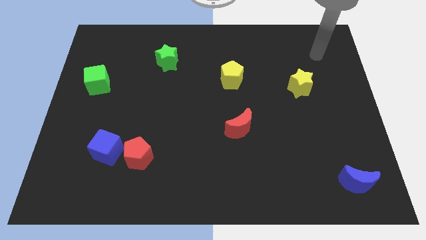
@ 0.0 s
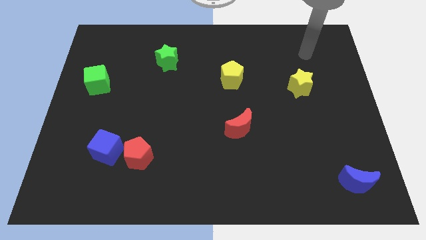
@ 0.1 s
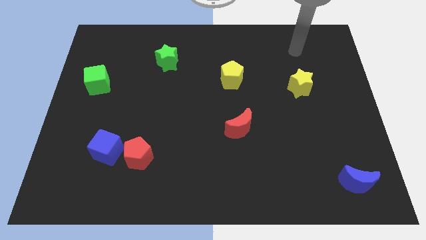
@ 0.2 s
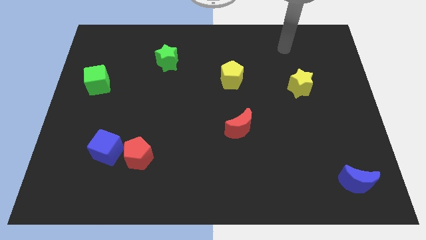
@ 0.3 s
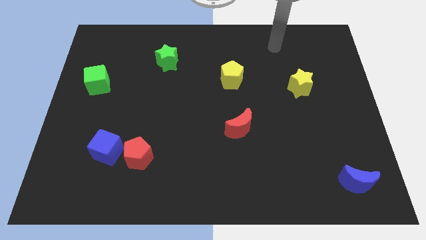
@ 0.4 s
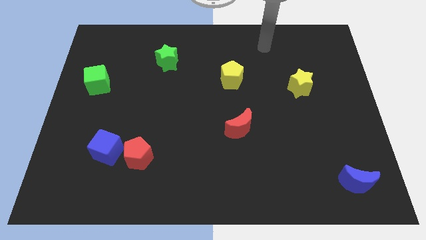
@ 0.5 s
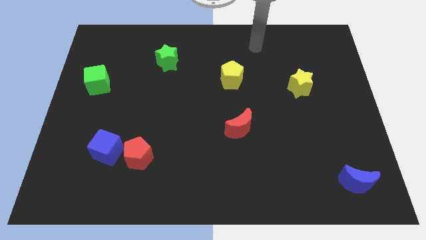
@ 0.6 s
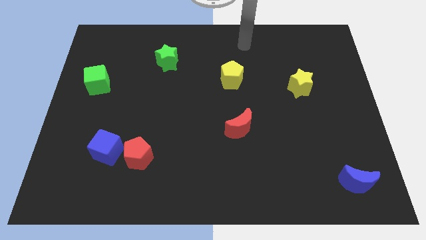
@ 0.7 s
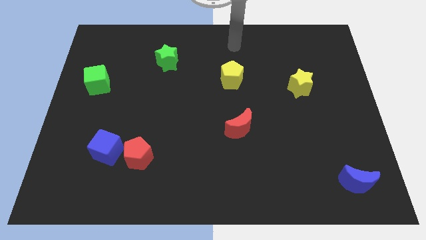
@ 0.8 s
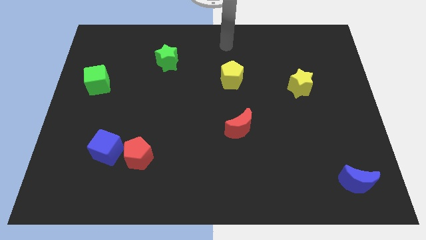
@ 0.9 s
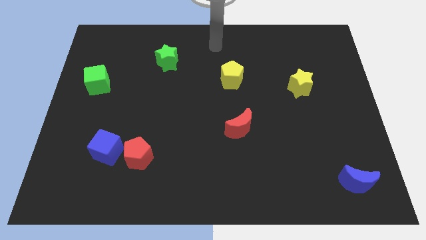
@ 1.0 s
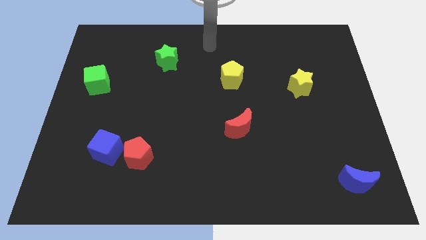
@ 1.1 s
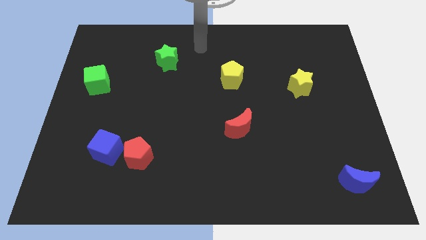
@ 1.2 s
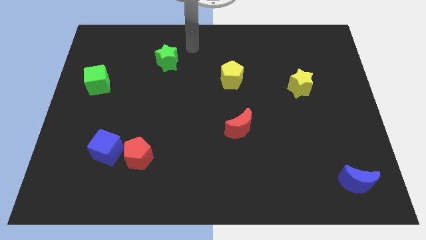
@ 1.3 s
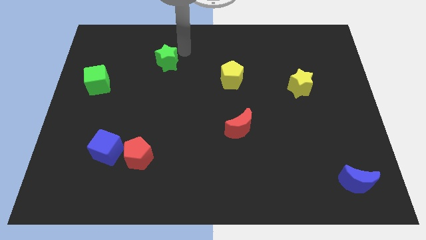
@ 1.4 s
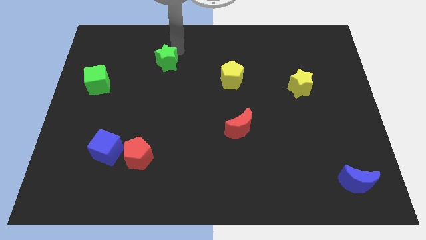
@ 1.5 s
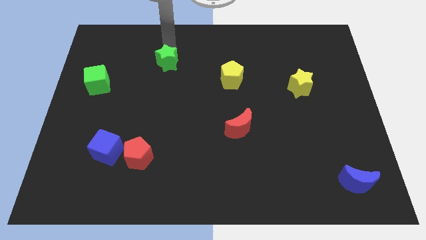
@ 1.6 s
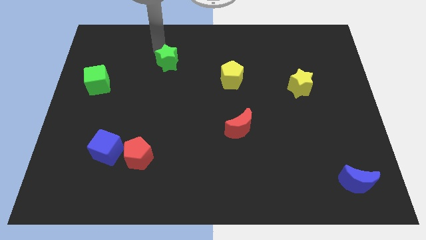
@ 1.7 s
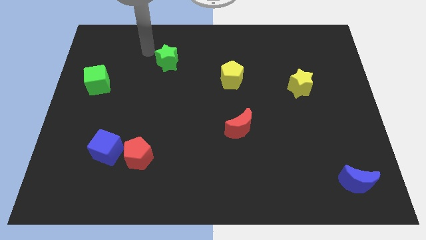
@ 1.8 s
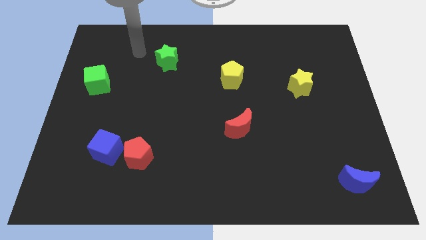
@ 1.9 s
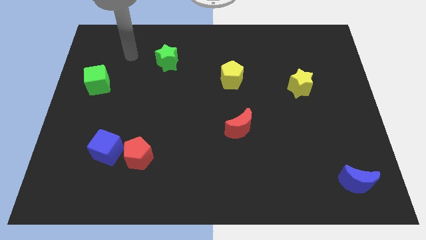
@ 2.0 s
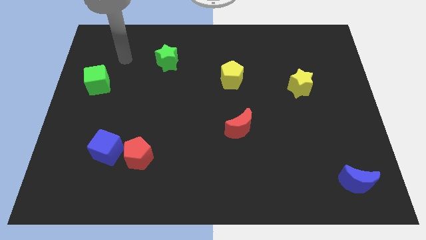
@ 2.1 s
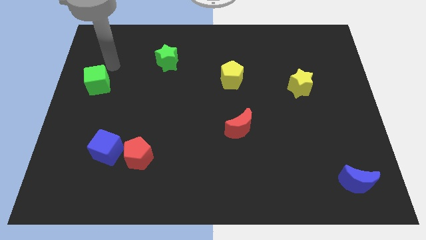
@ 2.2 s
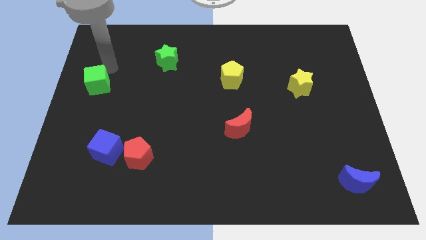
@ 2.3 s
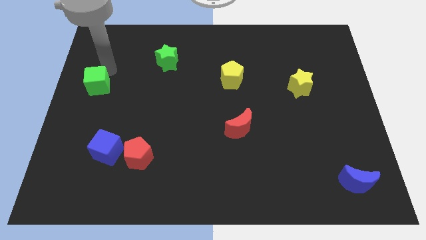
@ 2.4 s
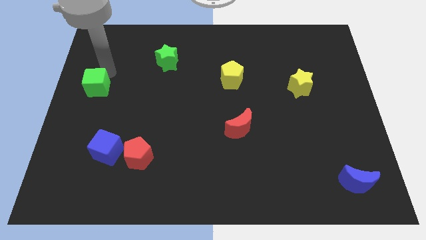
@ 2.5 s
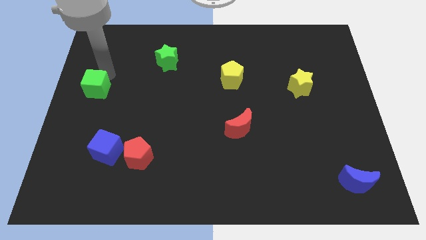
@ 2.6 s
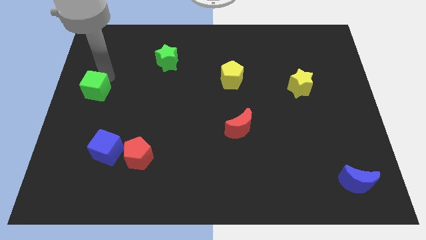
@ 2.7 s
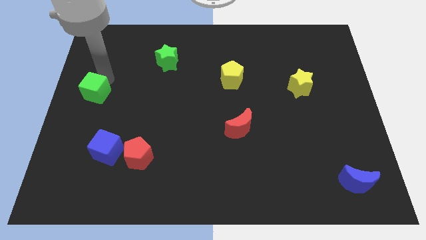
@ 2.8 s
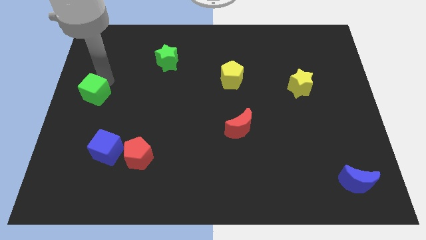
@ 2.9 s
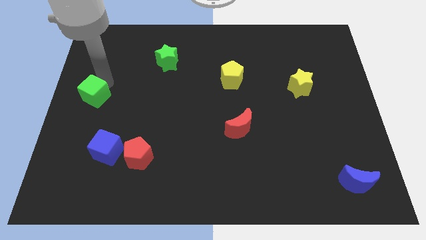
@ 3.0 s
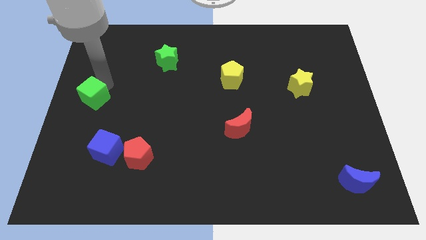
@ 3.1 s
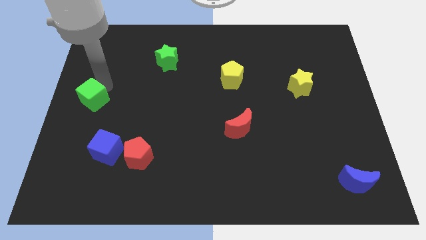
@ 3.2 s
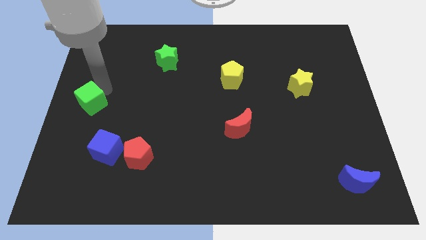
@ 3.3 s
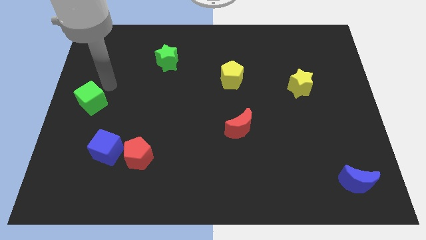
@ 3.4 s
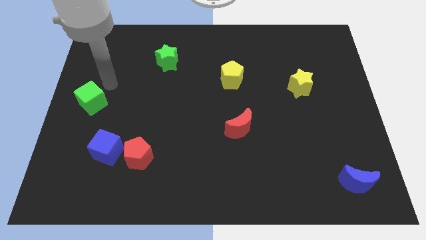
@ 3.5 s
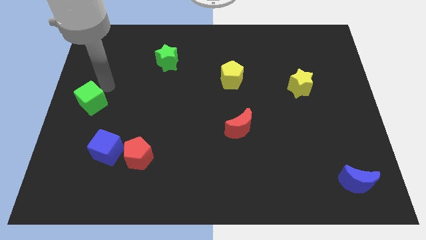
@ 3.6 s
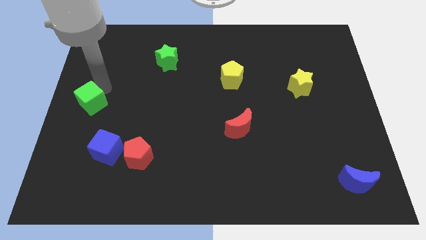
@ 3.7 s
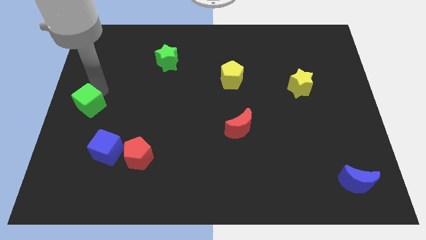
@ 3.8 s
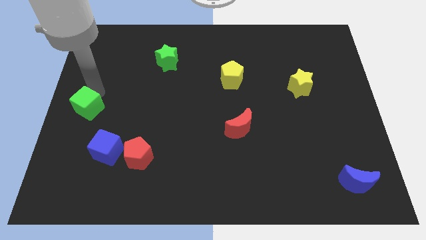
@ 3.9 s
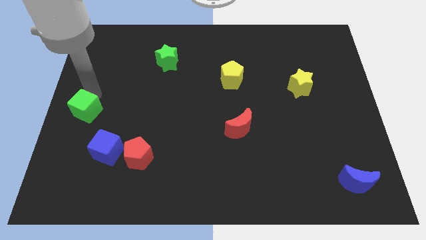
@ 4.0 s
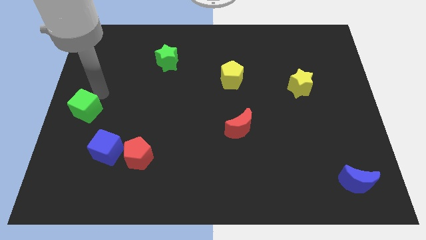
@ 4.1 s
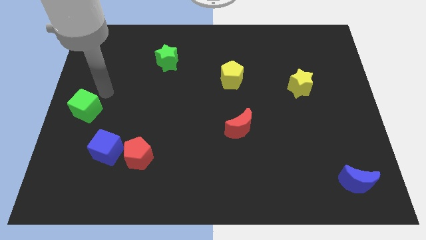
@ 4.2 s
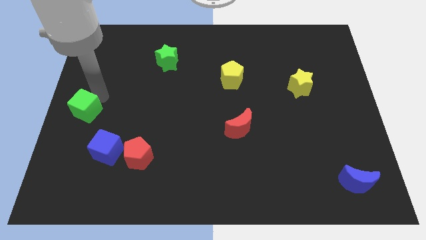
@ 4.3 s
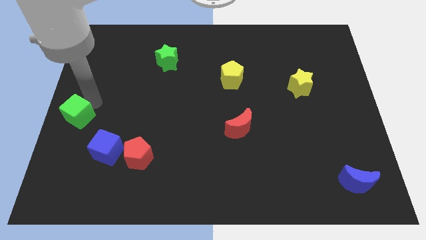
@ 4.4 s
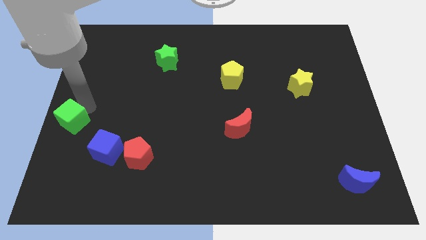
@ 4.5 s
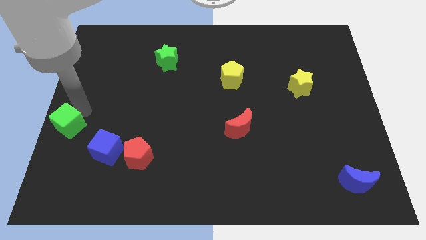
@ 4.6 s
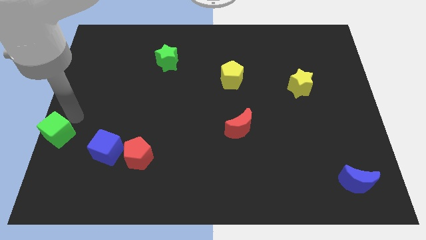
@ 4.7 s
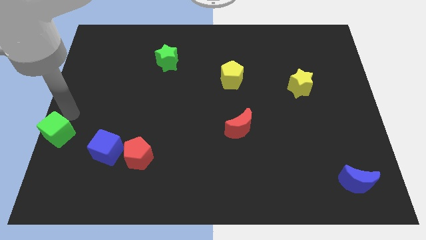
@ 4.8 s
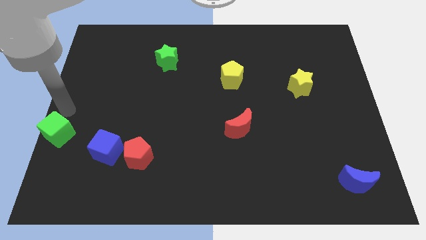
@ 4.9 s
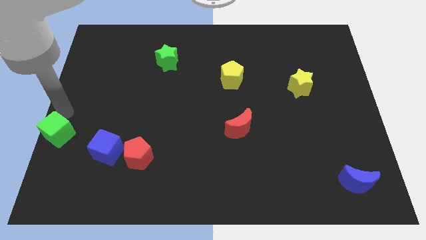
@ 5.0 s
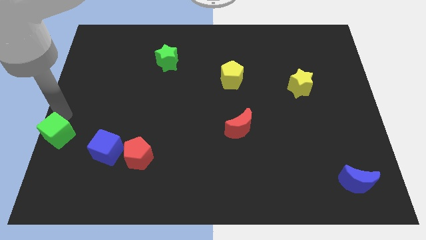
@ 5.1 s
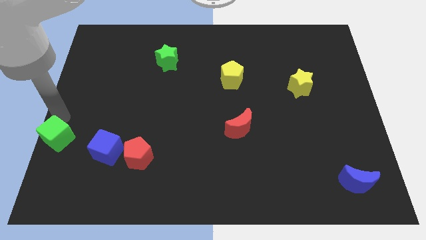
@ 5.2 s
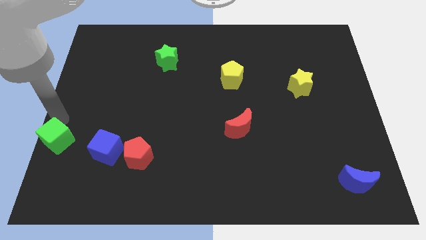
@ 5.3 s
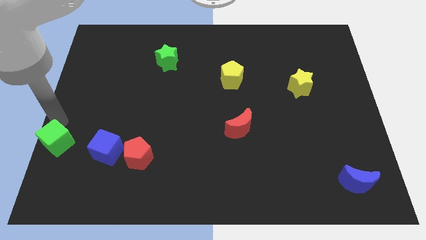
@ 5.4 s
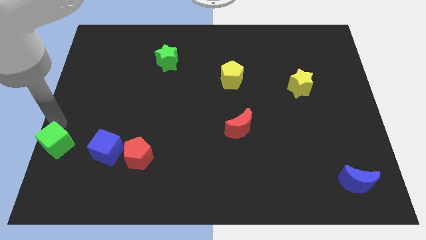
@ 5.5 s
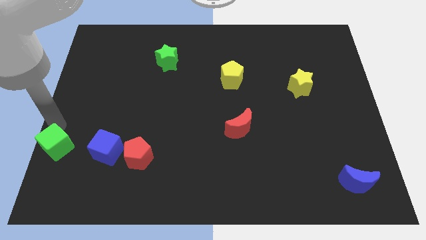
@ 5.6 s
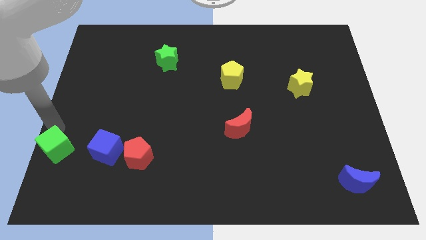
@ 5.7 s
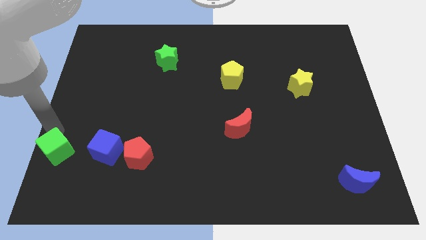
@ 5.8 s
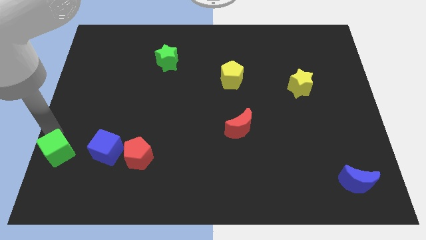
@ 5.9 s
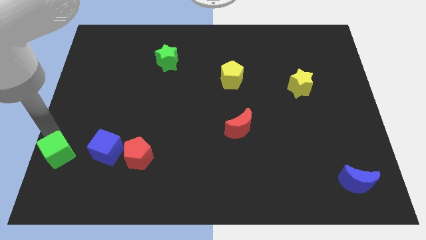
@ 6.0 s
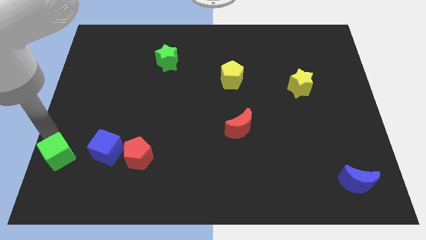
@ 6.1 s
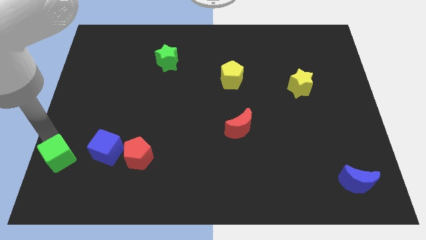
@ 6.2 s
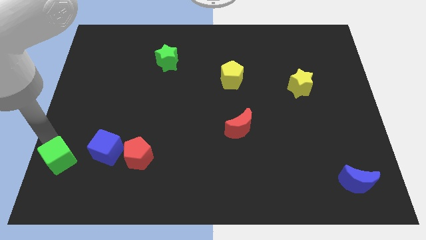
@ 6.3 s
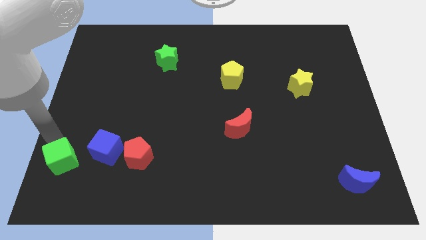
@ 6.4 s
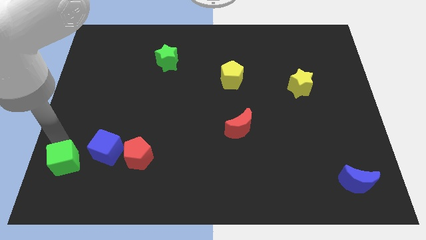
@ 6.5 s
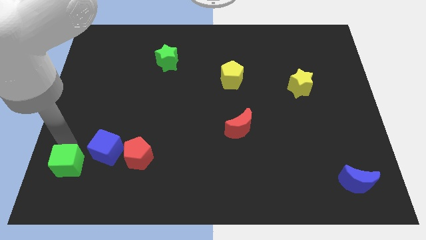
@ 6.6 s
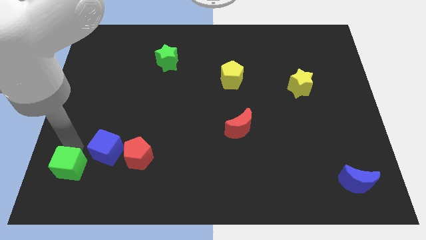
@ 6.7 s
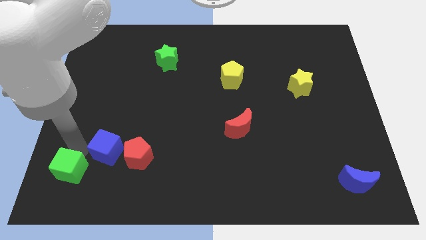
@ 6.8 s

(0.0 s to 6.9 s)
slide the green cube to the bottom left corner
